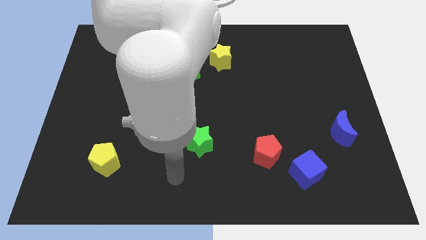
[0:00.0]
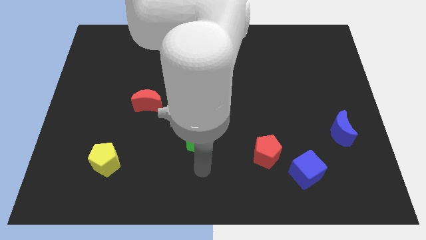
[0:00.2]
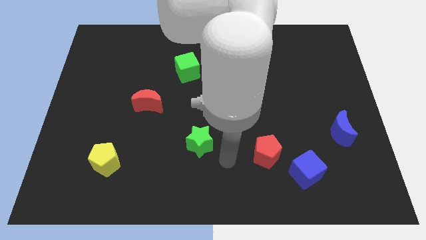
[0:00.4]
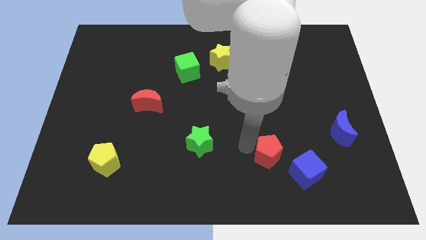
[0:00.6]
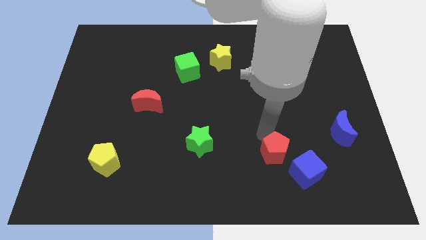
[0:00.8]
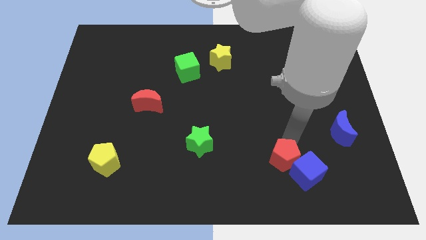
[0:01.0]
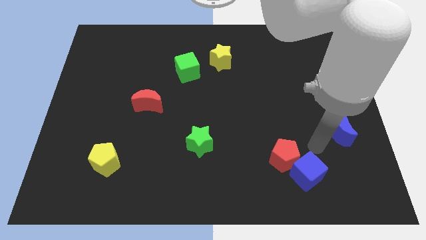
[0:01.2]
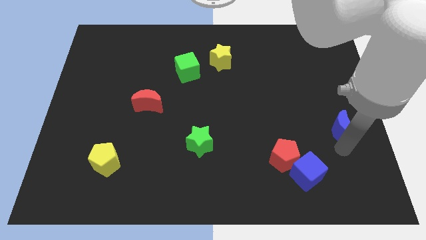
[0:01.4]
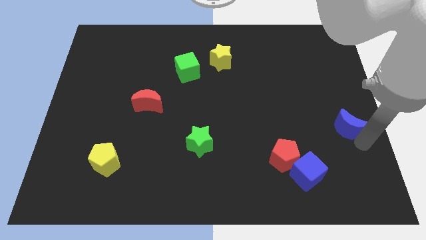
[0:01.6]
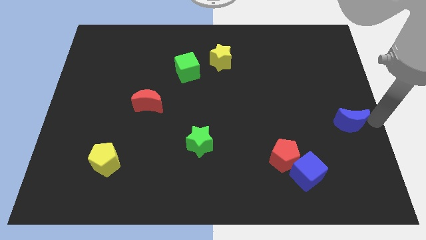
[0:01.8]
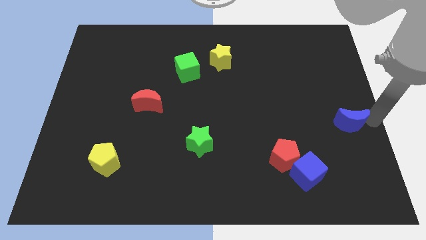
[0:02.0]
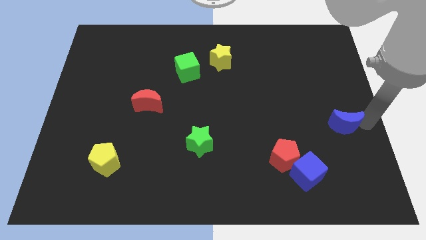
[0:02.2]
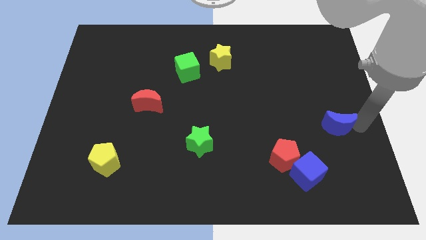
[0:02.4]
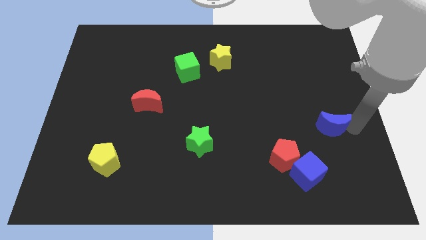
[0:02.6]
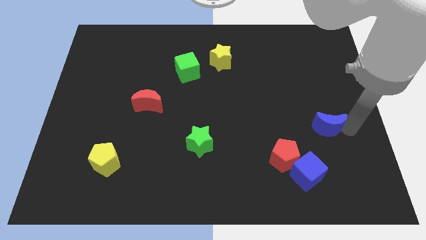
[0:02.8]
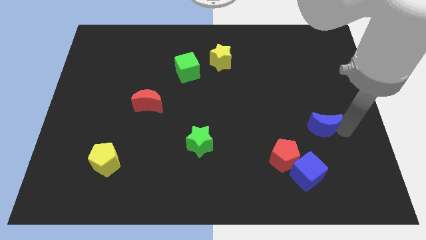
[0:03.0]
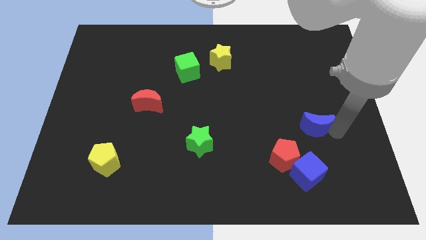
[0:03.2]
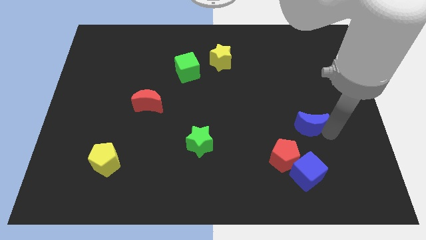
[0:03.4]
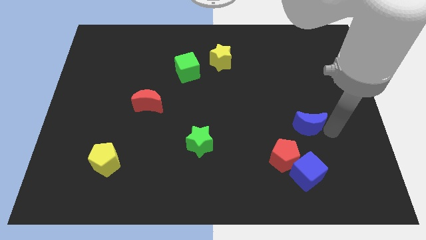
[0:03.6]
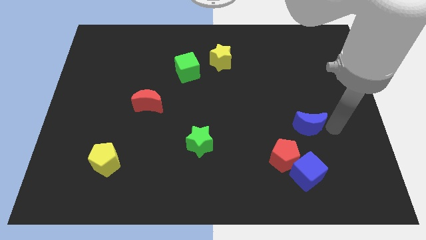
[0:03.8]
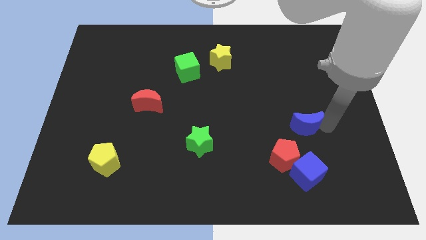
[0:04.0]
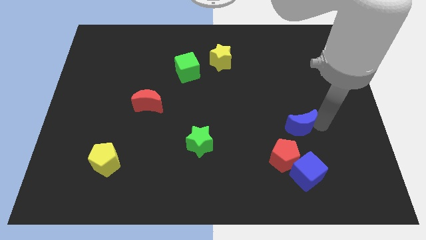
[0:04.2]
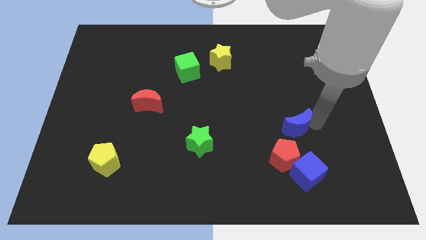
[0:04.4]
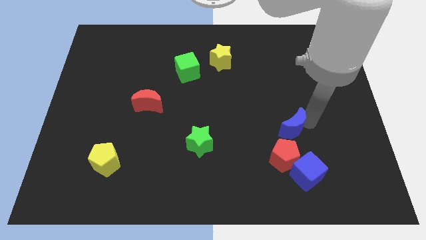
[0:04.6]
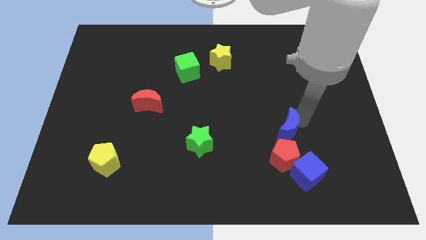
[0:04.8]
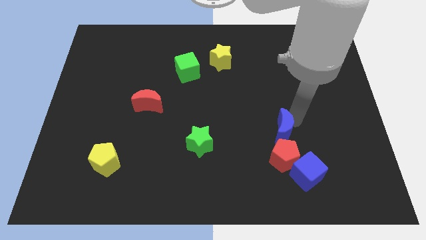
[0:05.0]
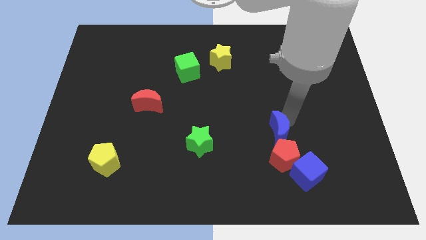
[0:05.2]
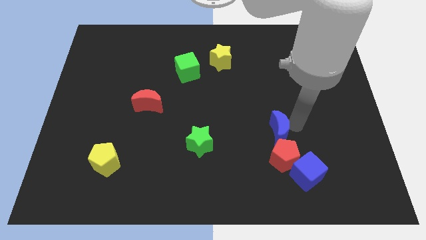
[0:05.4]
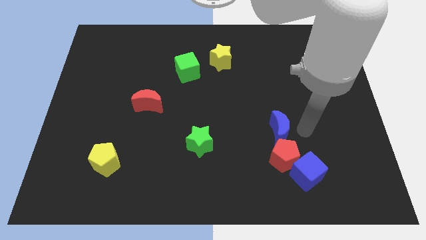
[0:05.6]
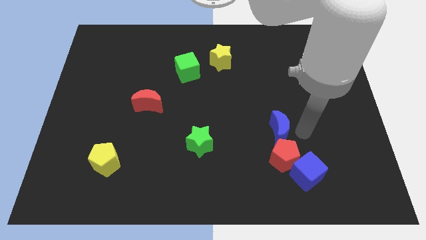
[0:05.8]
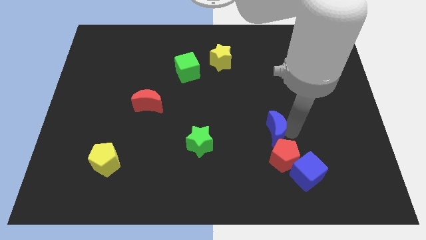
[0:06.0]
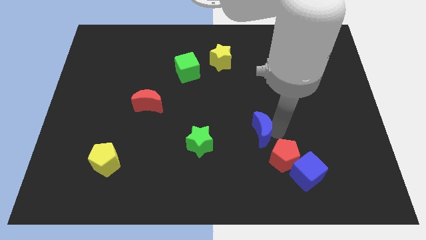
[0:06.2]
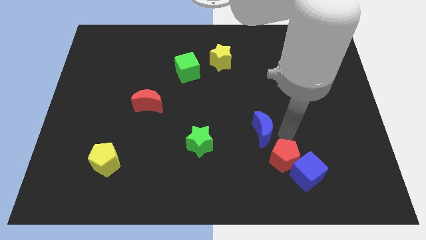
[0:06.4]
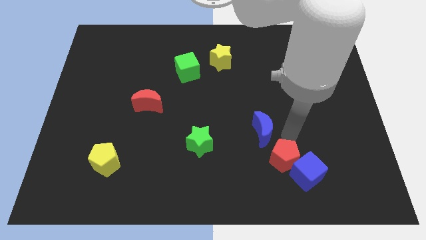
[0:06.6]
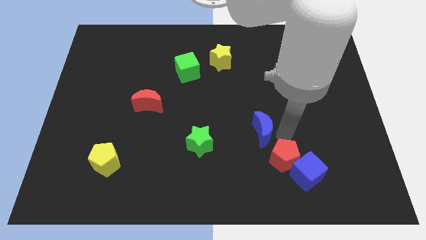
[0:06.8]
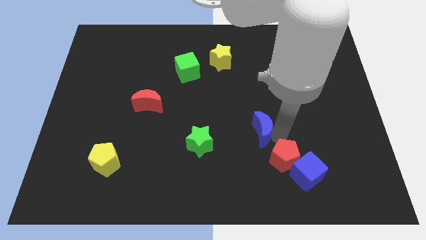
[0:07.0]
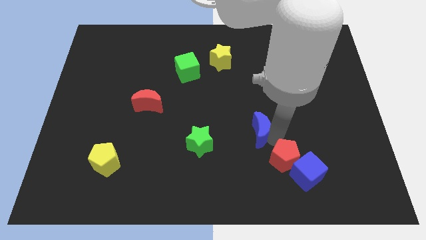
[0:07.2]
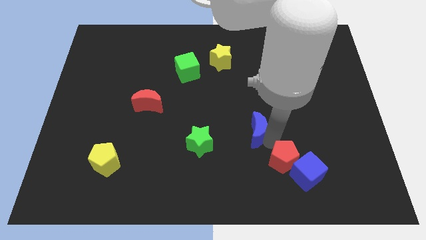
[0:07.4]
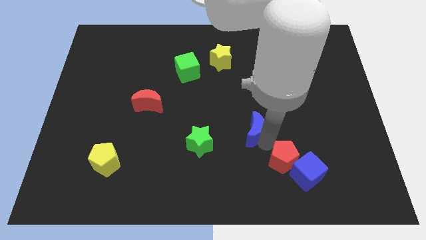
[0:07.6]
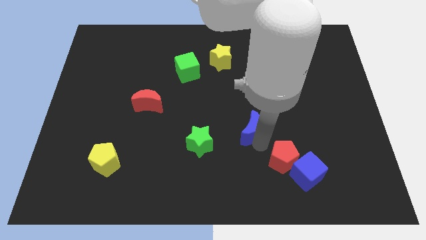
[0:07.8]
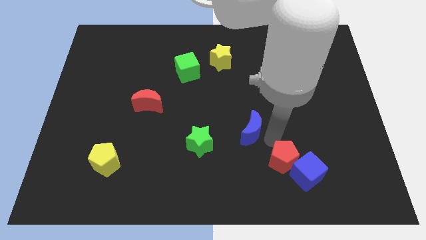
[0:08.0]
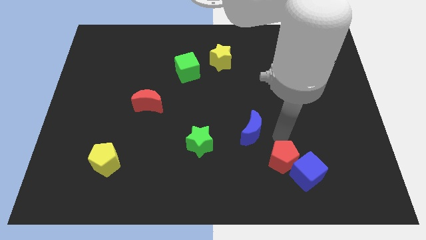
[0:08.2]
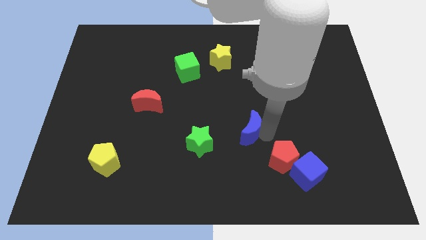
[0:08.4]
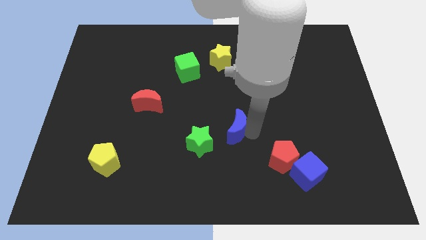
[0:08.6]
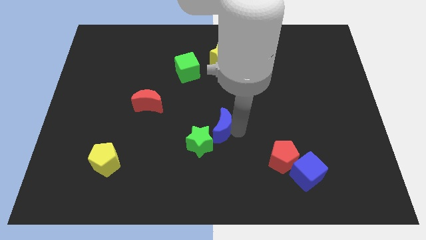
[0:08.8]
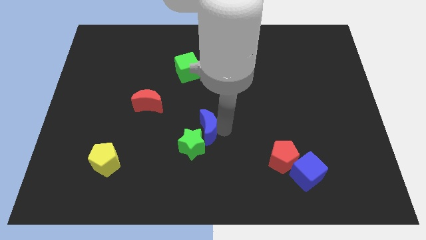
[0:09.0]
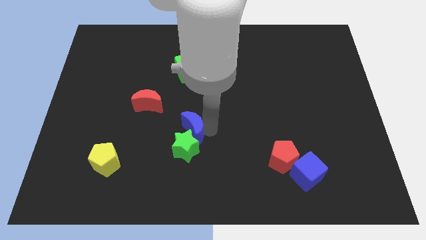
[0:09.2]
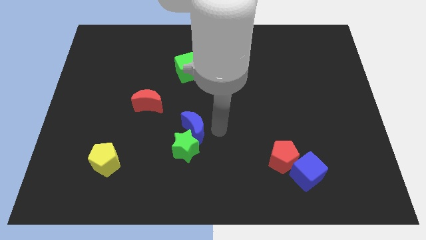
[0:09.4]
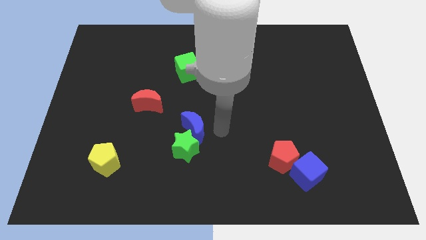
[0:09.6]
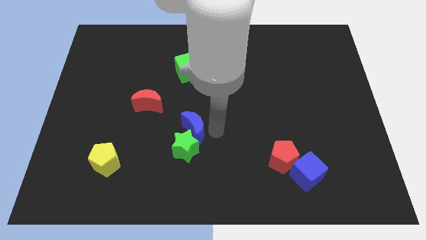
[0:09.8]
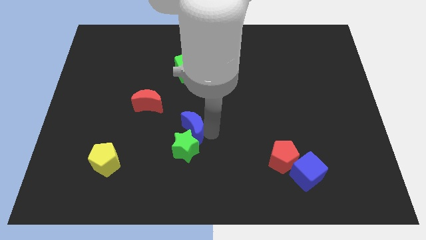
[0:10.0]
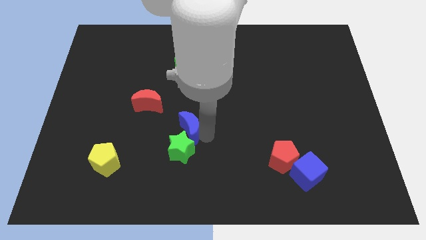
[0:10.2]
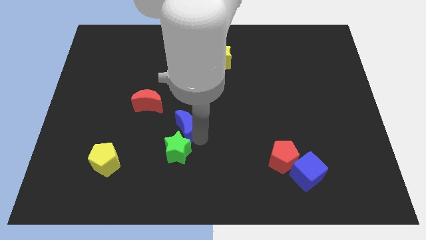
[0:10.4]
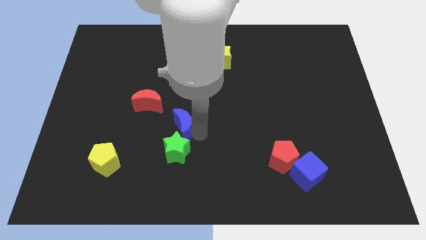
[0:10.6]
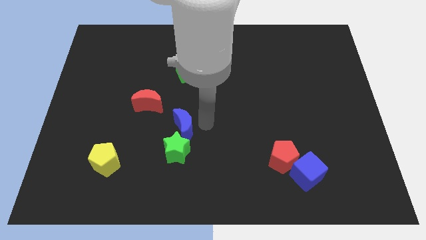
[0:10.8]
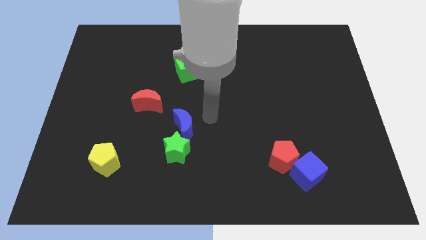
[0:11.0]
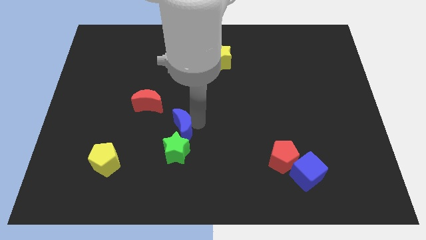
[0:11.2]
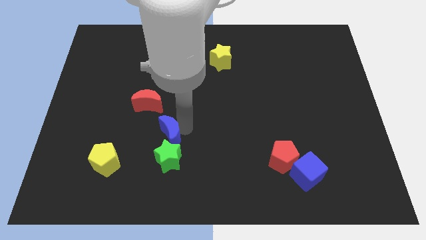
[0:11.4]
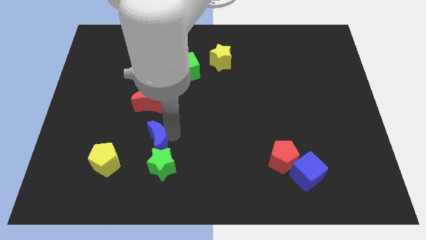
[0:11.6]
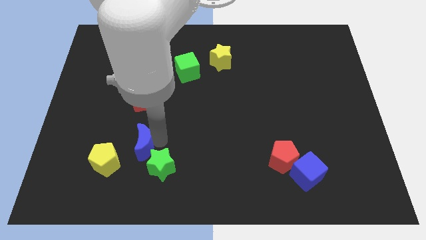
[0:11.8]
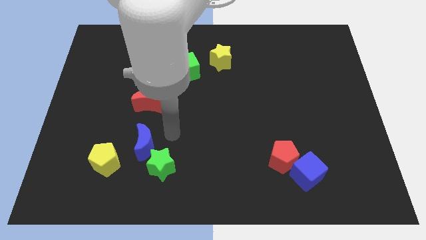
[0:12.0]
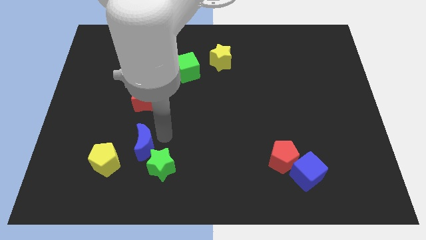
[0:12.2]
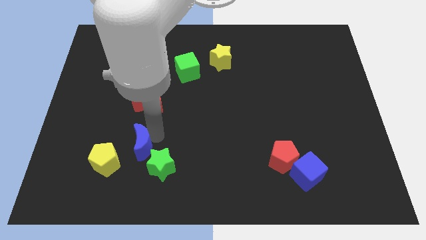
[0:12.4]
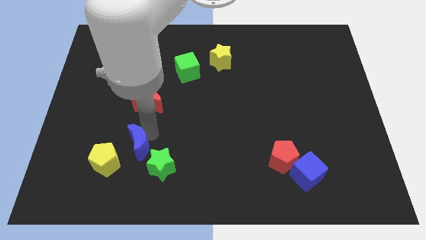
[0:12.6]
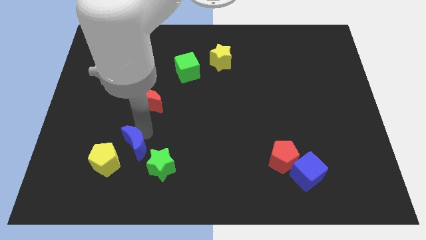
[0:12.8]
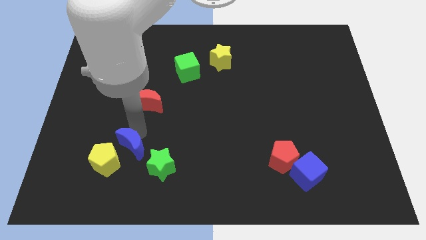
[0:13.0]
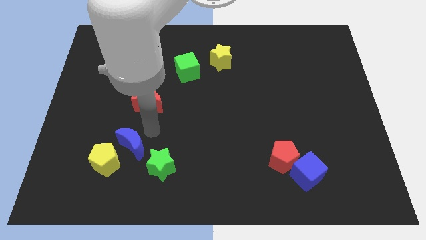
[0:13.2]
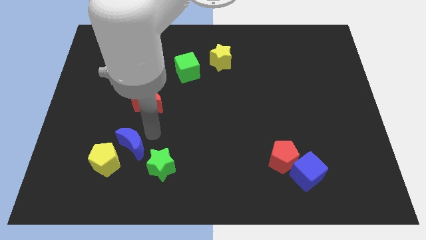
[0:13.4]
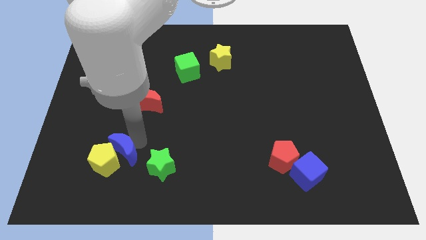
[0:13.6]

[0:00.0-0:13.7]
move the blue moon to the yellow pentagon
